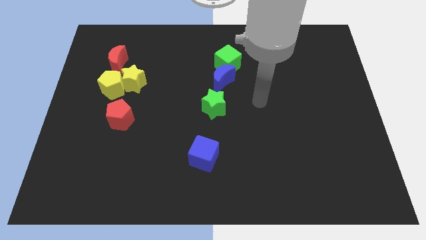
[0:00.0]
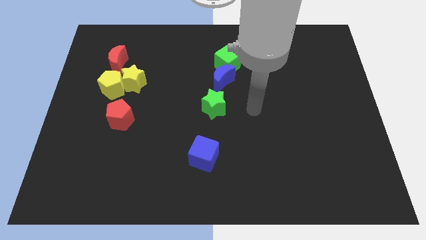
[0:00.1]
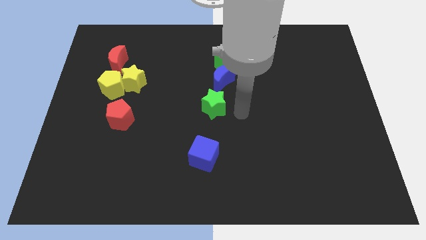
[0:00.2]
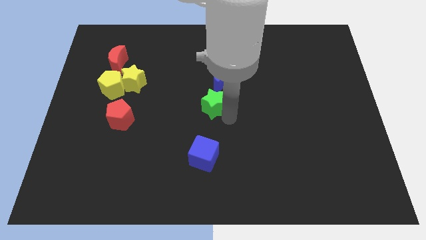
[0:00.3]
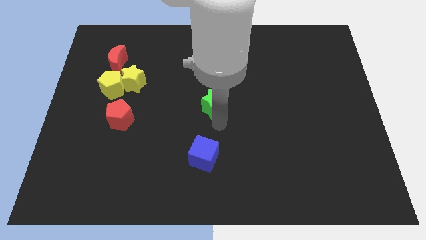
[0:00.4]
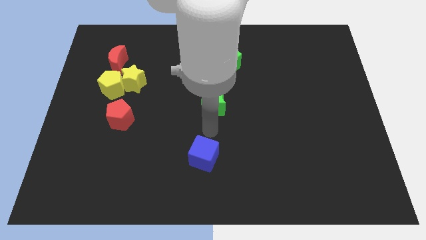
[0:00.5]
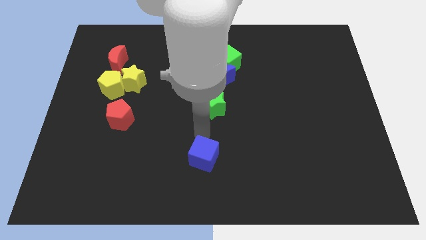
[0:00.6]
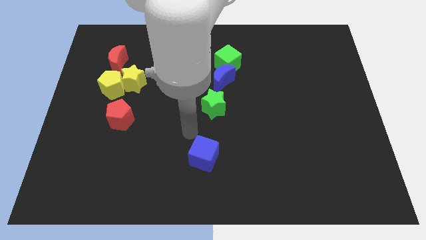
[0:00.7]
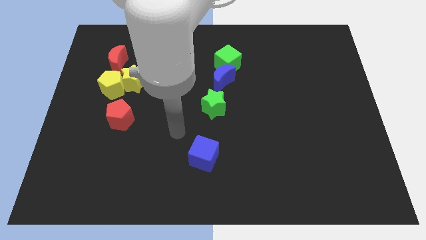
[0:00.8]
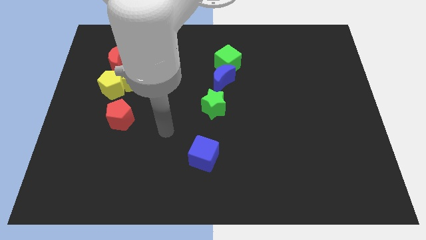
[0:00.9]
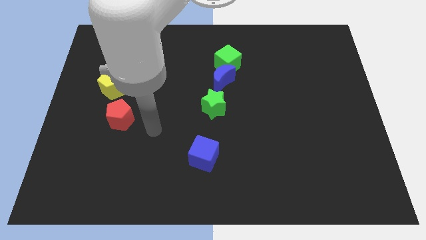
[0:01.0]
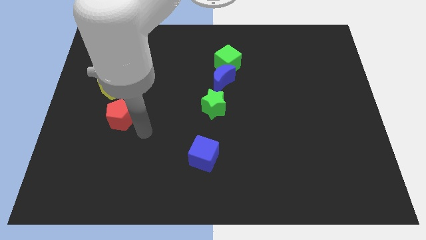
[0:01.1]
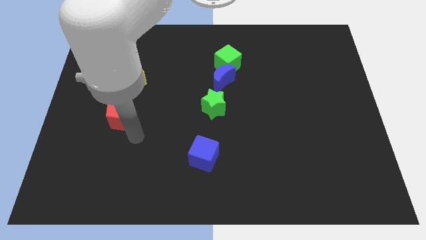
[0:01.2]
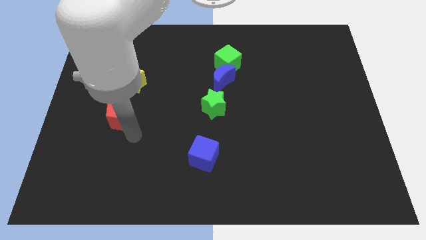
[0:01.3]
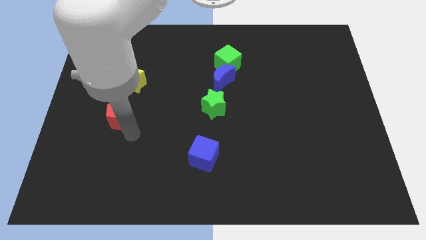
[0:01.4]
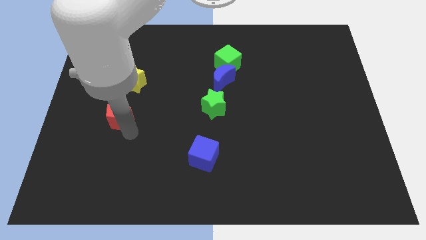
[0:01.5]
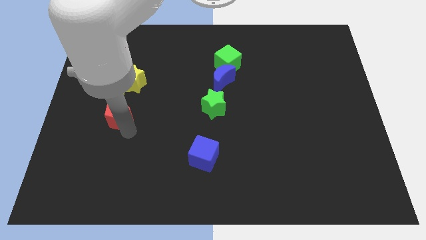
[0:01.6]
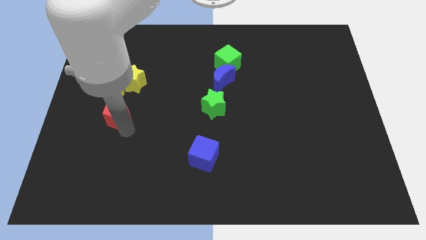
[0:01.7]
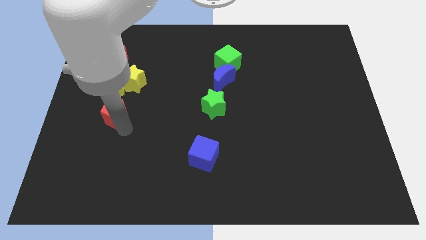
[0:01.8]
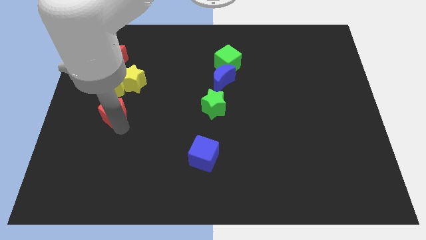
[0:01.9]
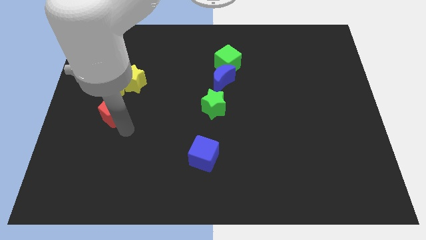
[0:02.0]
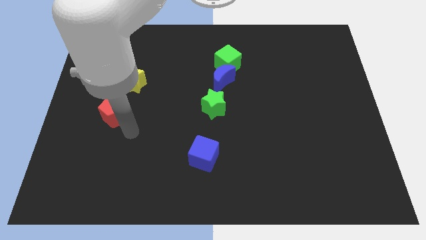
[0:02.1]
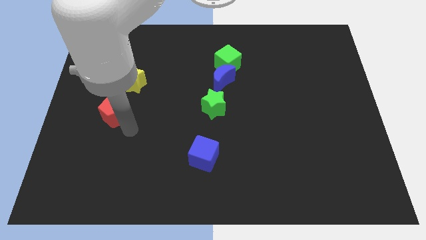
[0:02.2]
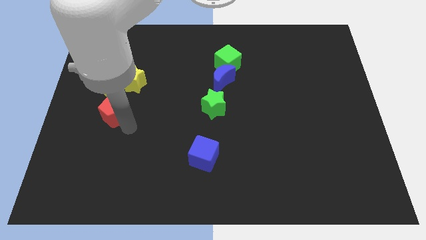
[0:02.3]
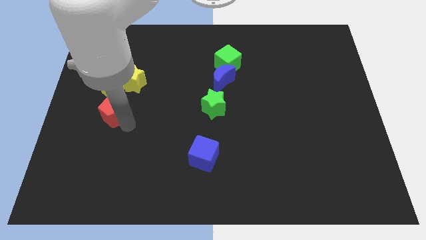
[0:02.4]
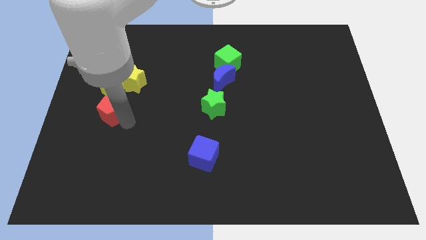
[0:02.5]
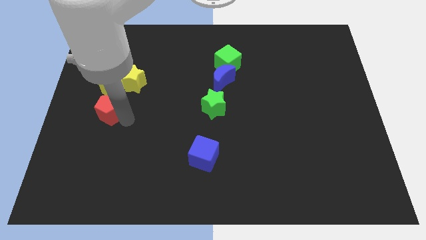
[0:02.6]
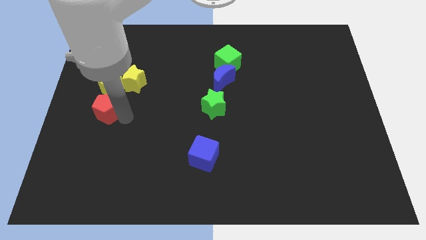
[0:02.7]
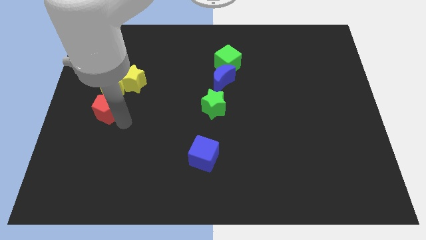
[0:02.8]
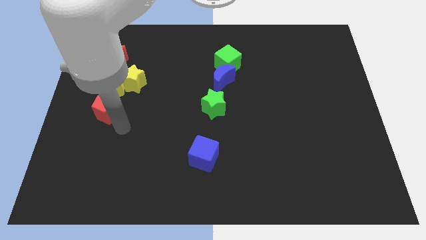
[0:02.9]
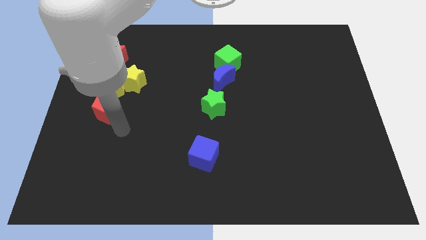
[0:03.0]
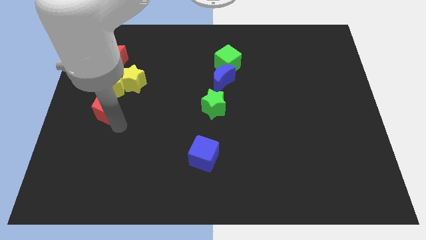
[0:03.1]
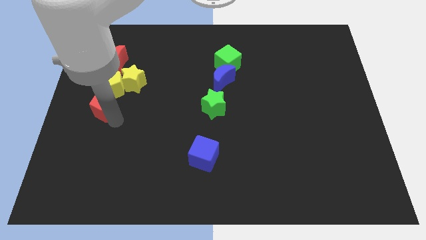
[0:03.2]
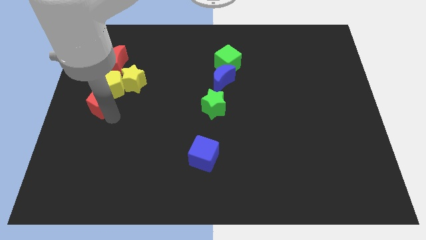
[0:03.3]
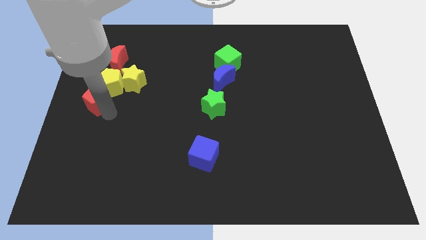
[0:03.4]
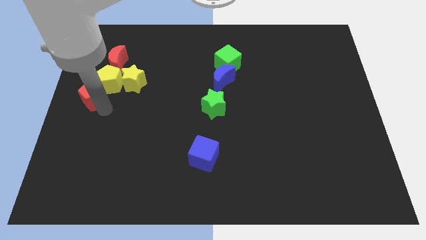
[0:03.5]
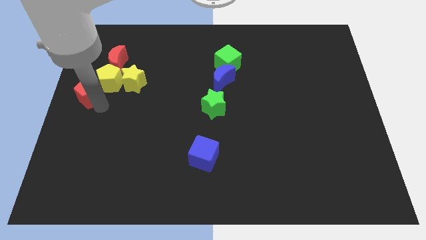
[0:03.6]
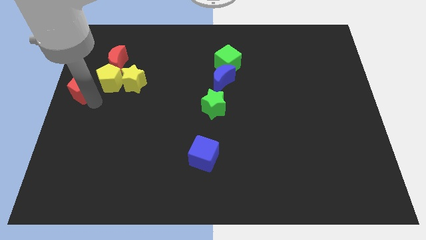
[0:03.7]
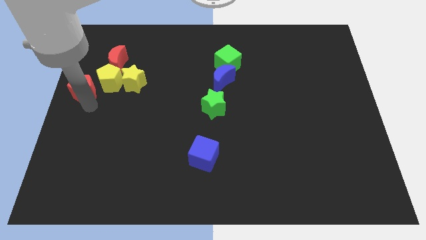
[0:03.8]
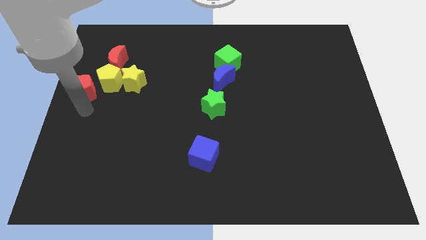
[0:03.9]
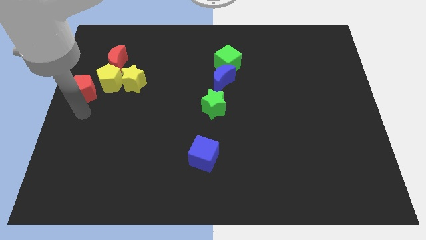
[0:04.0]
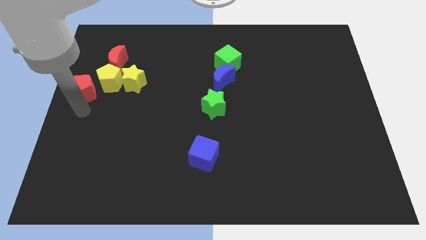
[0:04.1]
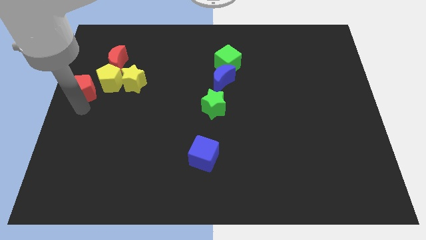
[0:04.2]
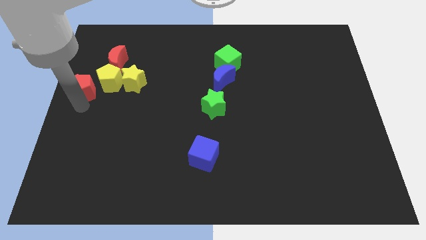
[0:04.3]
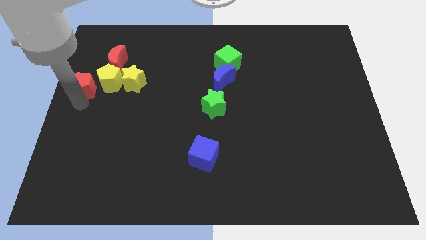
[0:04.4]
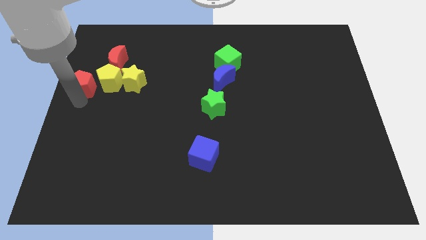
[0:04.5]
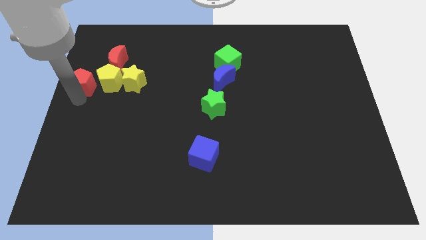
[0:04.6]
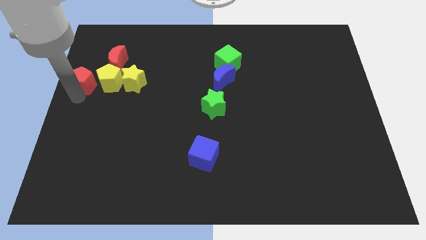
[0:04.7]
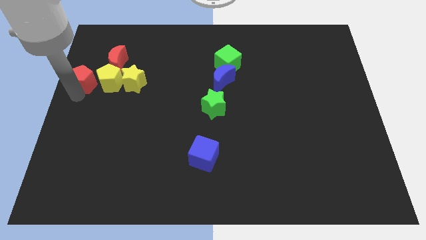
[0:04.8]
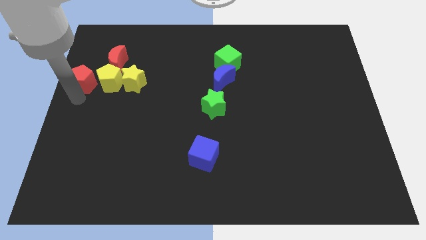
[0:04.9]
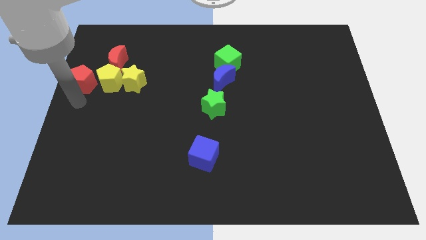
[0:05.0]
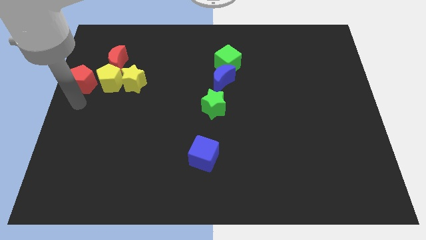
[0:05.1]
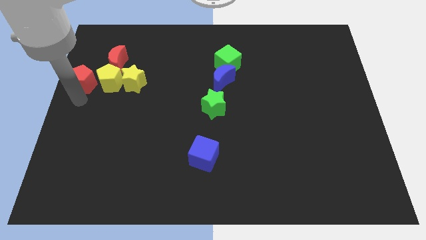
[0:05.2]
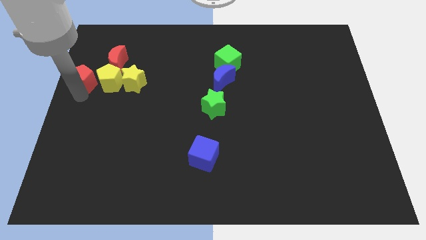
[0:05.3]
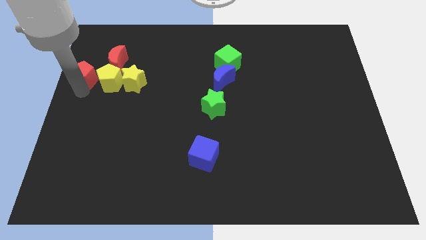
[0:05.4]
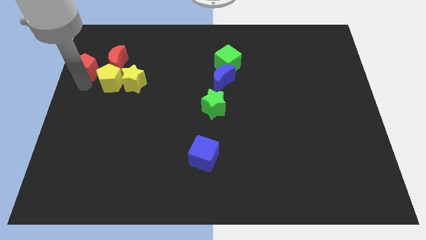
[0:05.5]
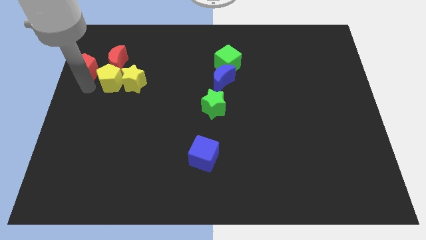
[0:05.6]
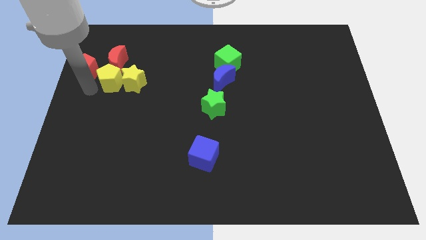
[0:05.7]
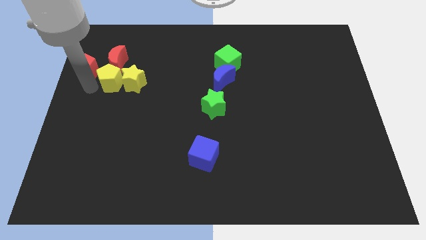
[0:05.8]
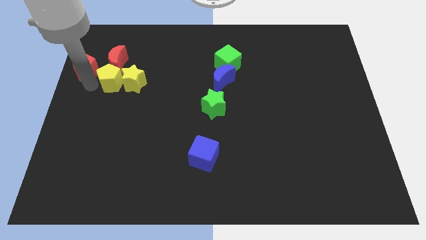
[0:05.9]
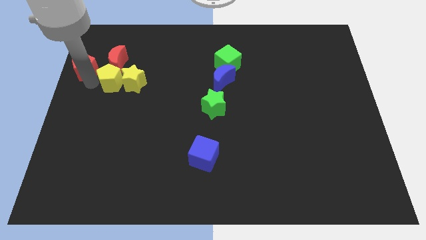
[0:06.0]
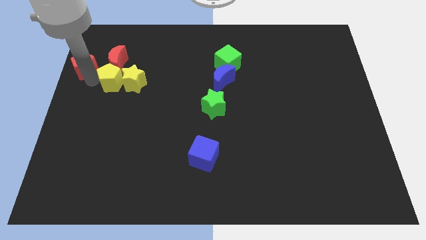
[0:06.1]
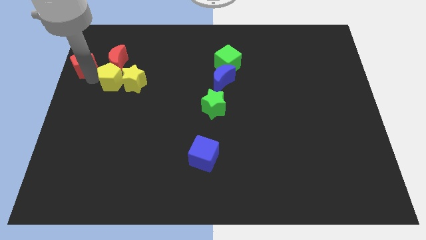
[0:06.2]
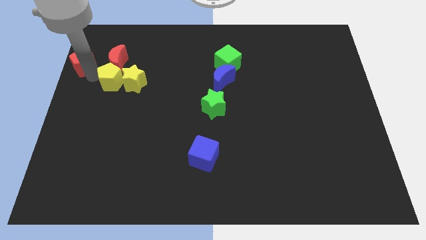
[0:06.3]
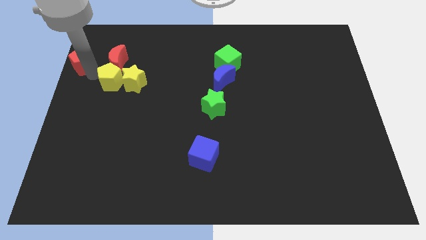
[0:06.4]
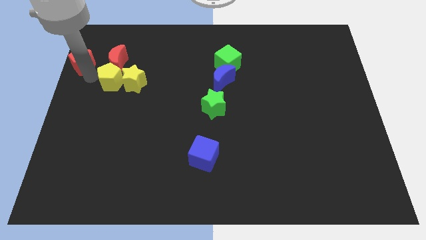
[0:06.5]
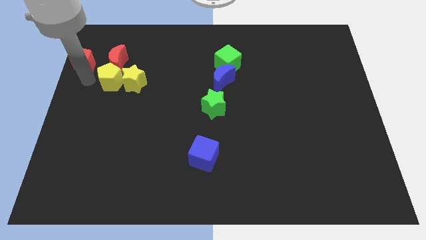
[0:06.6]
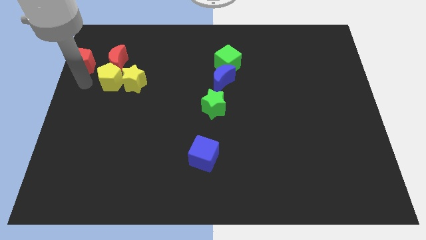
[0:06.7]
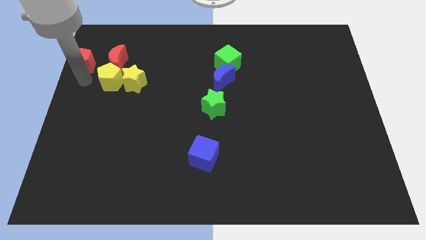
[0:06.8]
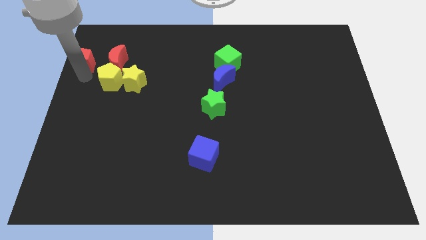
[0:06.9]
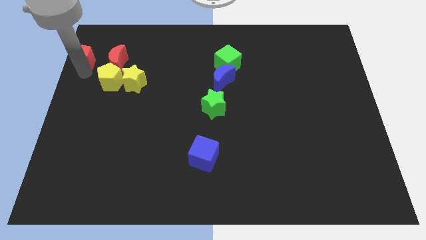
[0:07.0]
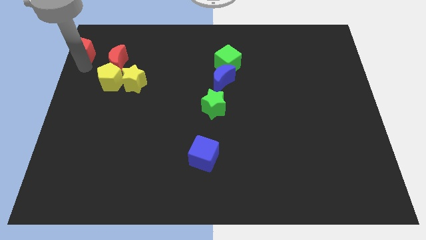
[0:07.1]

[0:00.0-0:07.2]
move the red pentagon to the top left corner

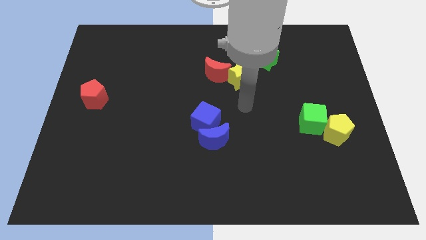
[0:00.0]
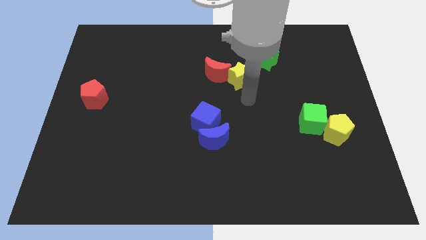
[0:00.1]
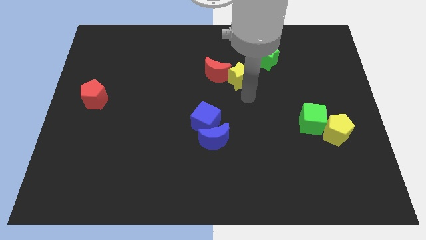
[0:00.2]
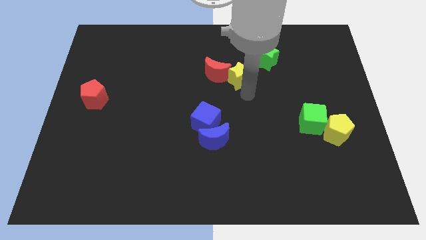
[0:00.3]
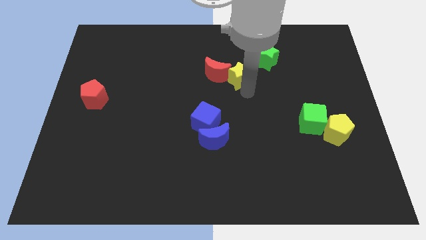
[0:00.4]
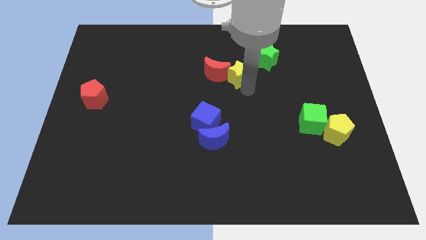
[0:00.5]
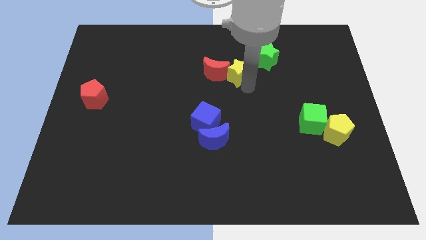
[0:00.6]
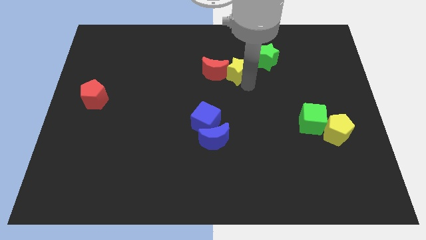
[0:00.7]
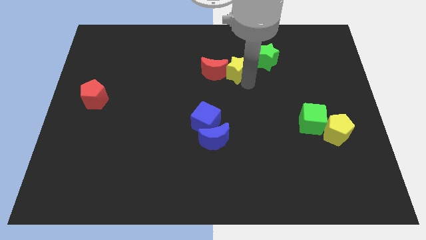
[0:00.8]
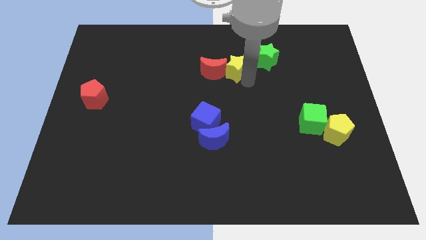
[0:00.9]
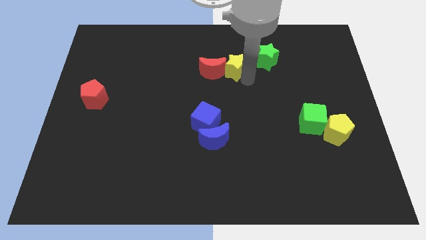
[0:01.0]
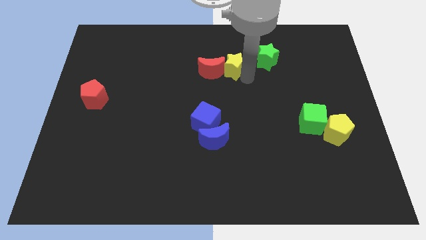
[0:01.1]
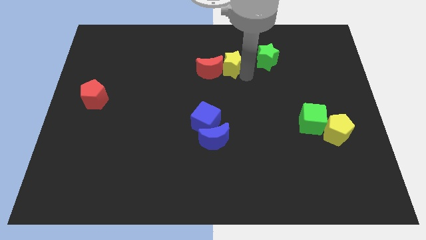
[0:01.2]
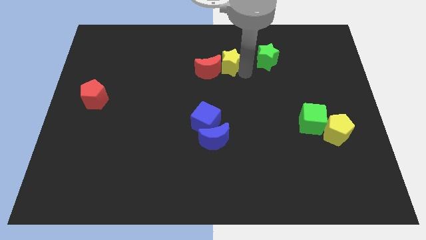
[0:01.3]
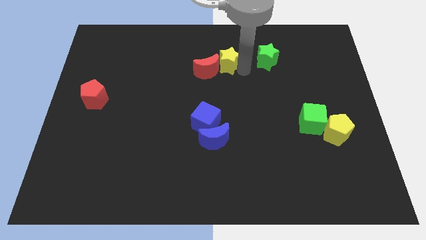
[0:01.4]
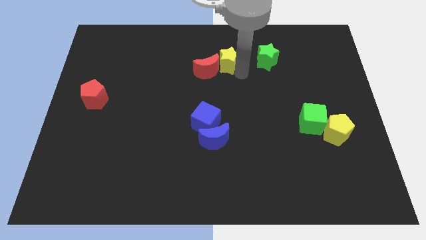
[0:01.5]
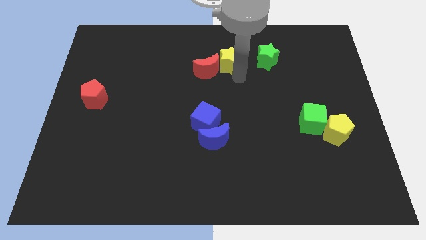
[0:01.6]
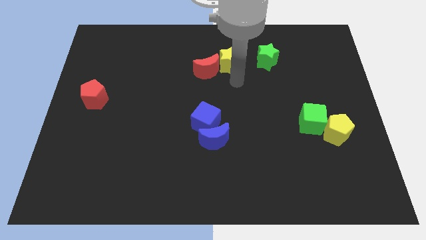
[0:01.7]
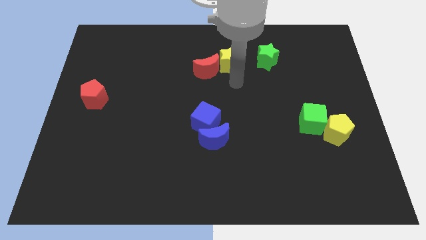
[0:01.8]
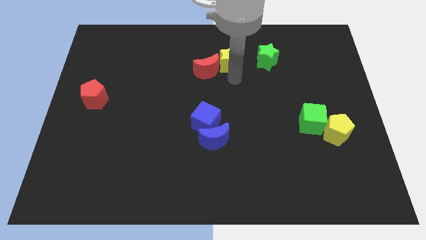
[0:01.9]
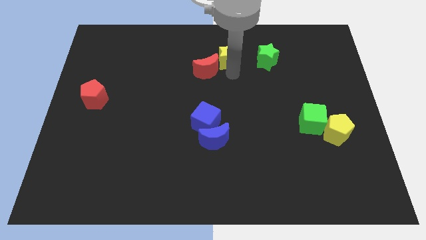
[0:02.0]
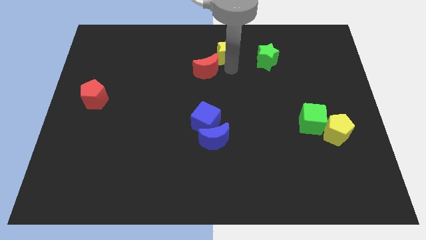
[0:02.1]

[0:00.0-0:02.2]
slide the yellow star to the towards your base
